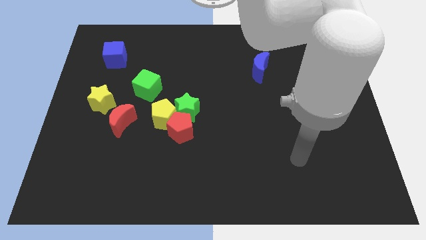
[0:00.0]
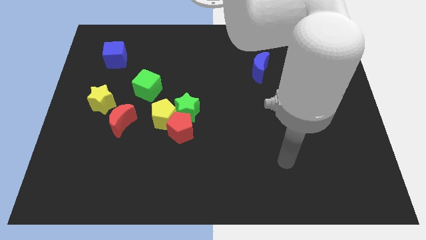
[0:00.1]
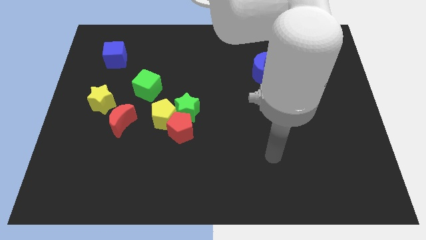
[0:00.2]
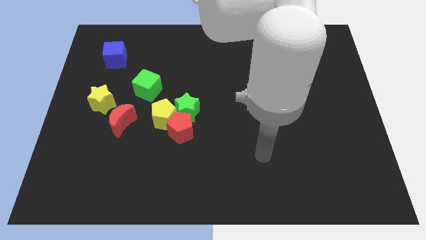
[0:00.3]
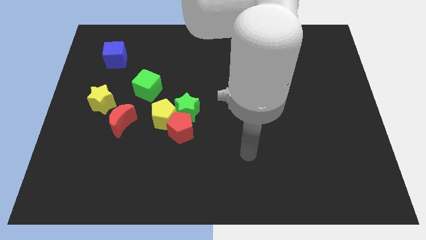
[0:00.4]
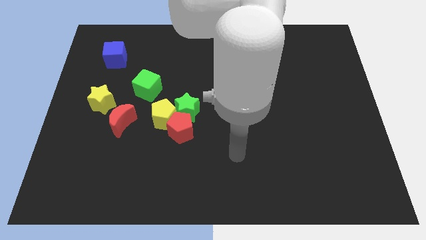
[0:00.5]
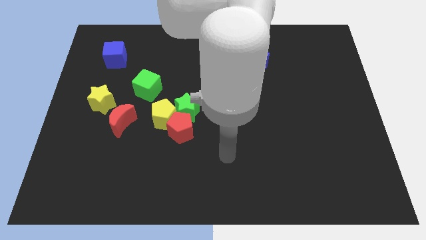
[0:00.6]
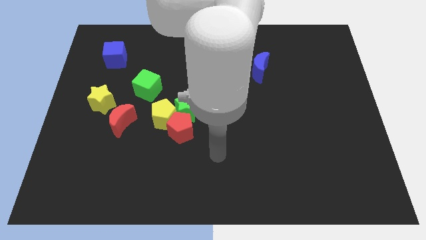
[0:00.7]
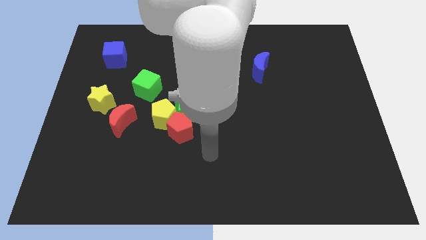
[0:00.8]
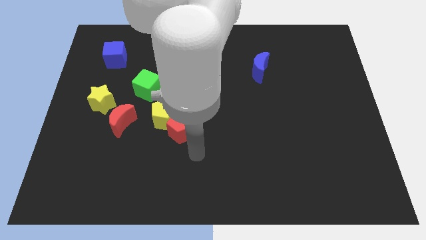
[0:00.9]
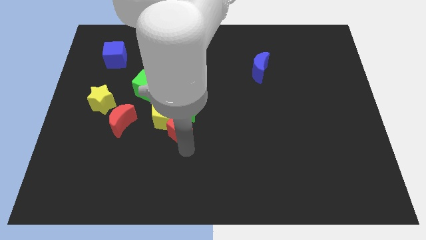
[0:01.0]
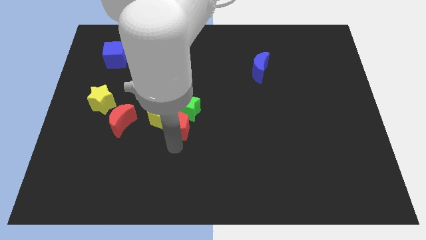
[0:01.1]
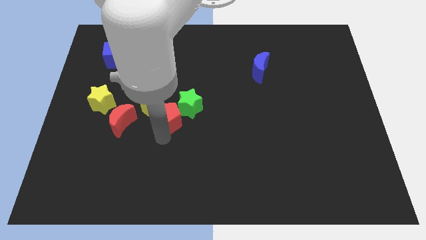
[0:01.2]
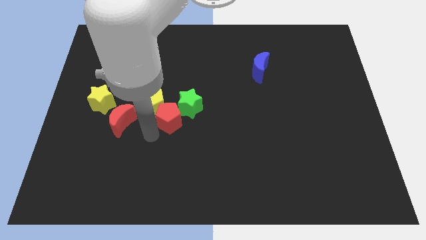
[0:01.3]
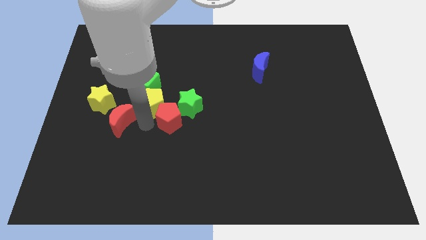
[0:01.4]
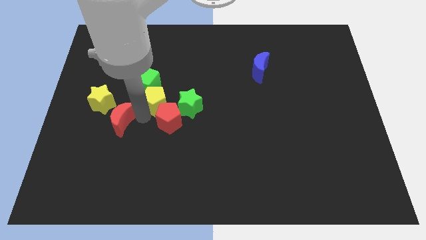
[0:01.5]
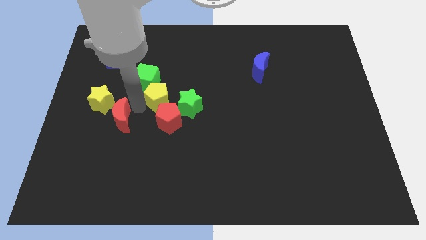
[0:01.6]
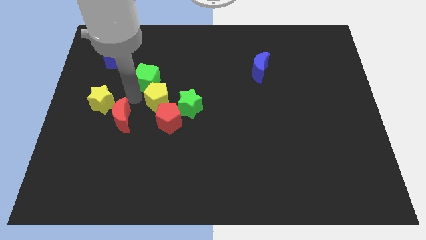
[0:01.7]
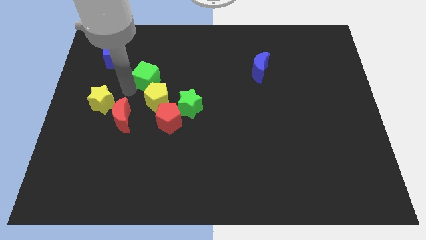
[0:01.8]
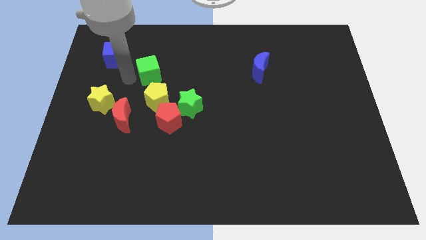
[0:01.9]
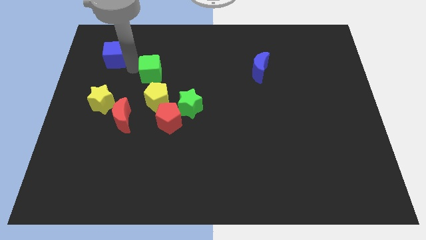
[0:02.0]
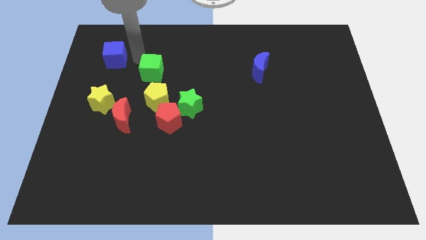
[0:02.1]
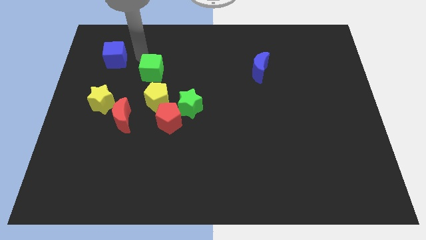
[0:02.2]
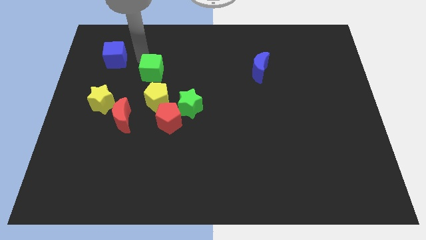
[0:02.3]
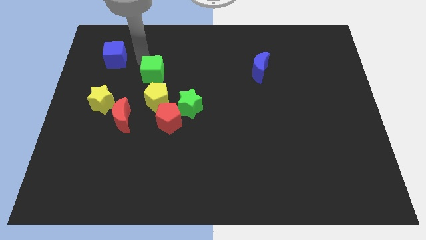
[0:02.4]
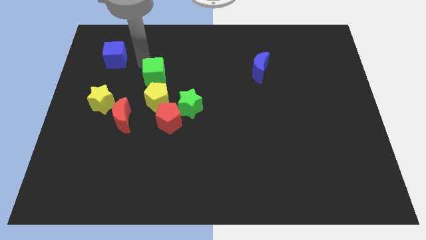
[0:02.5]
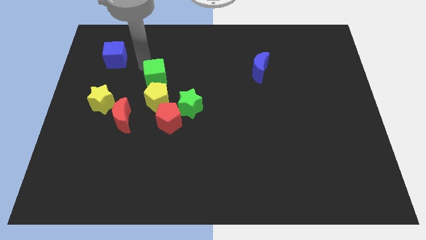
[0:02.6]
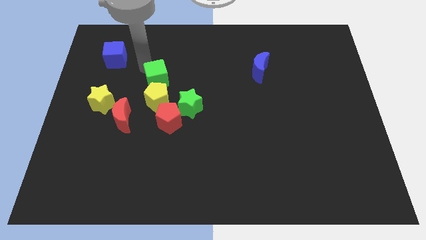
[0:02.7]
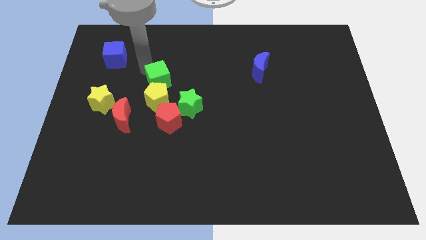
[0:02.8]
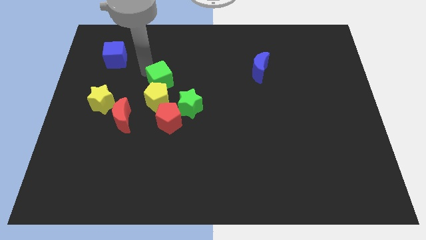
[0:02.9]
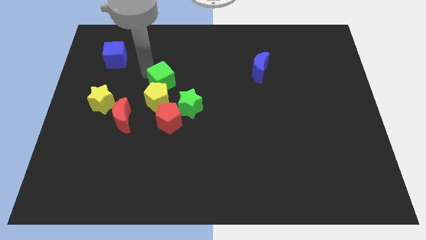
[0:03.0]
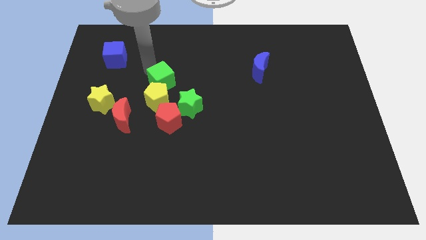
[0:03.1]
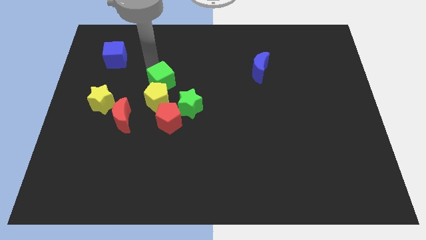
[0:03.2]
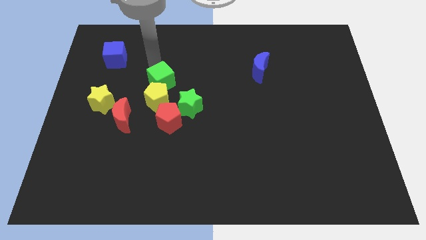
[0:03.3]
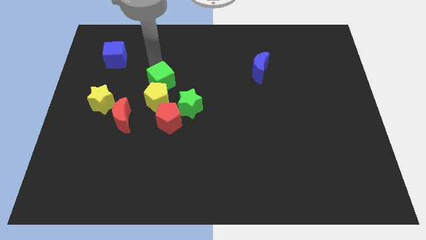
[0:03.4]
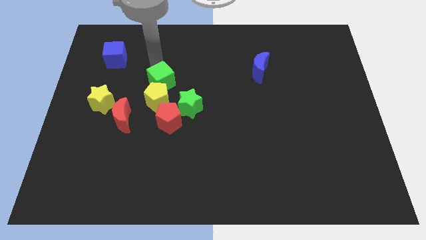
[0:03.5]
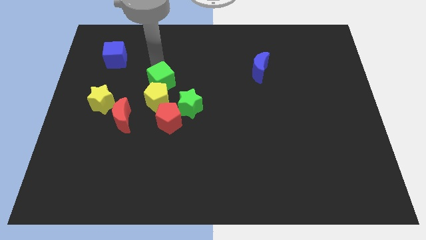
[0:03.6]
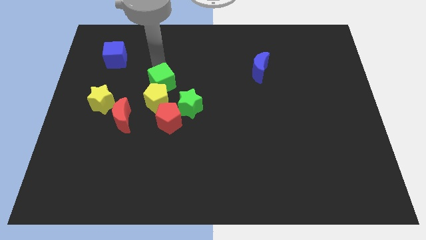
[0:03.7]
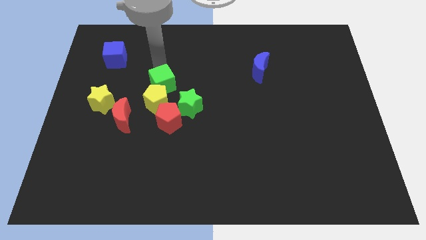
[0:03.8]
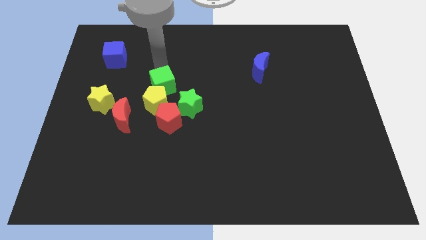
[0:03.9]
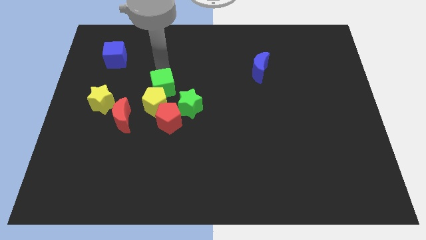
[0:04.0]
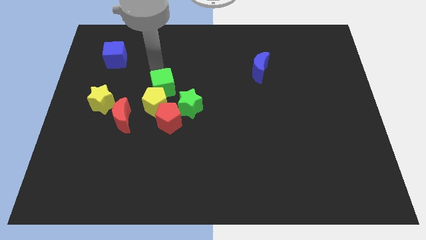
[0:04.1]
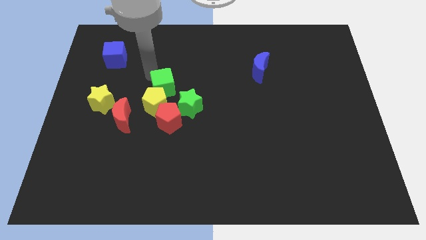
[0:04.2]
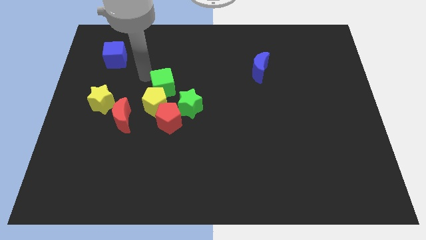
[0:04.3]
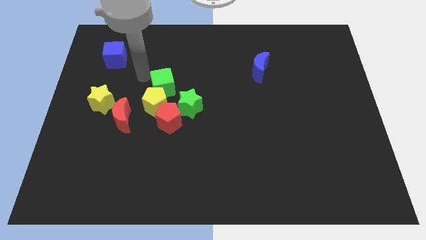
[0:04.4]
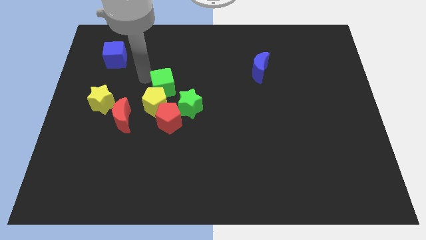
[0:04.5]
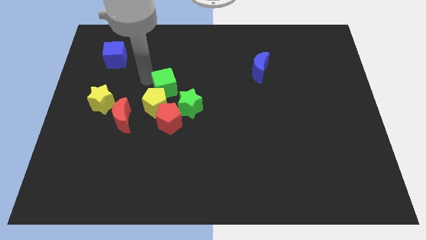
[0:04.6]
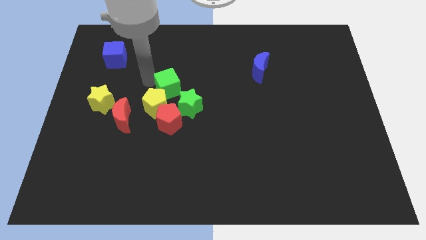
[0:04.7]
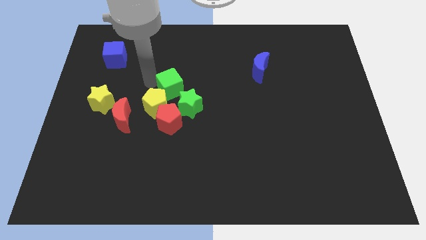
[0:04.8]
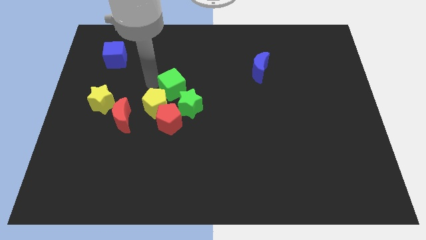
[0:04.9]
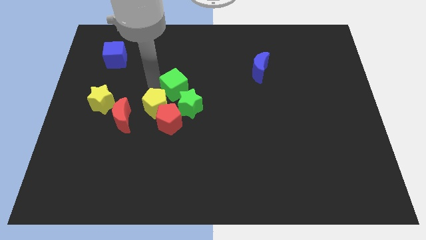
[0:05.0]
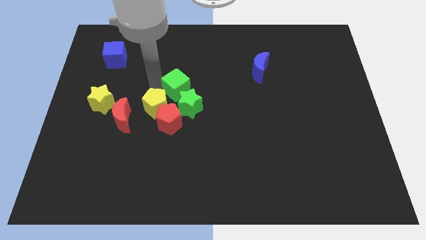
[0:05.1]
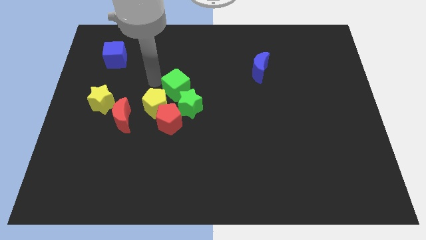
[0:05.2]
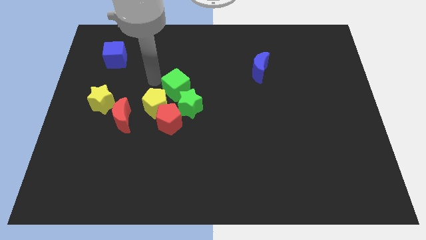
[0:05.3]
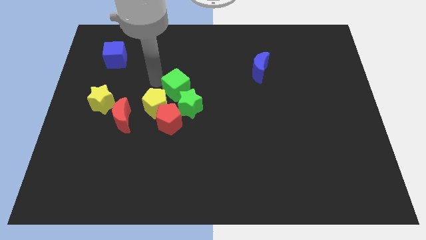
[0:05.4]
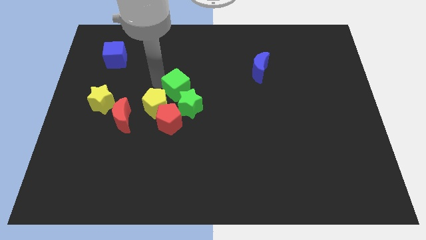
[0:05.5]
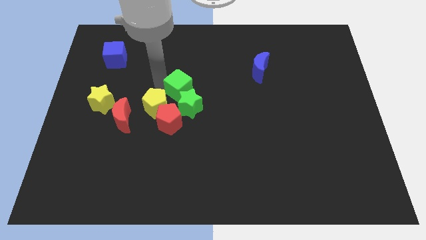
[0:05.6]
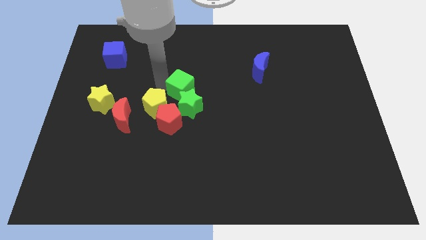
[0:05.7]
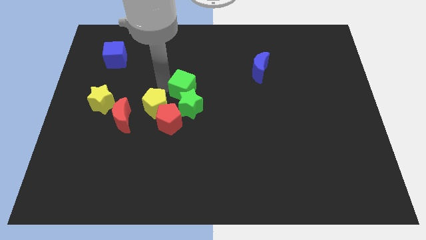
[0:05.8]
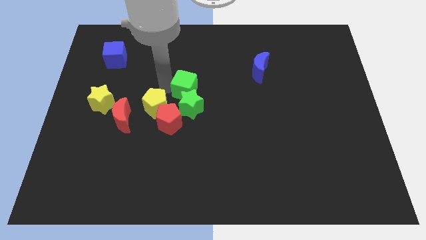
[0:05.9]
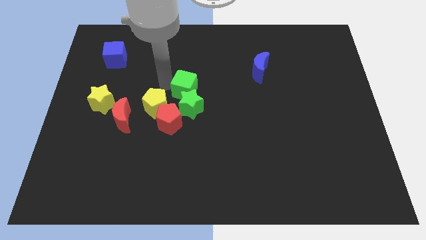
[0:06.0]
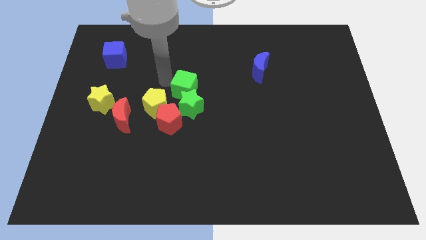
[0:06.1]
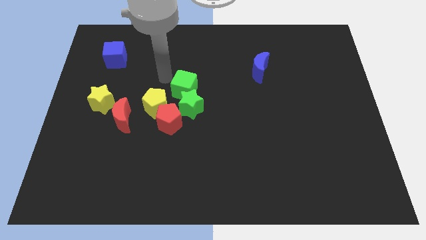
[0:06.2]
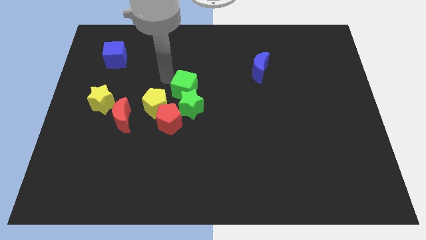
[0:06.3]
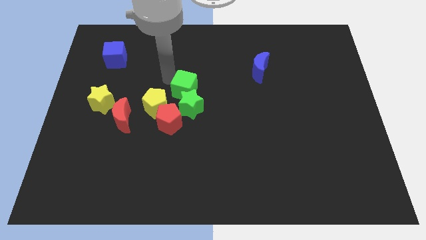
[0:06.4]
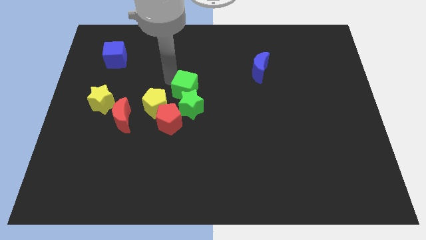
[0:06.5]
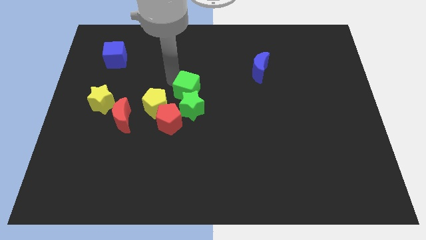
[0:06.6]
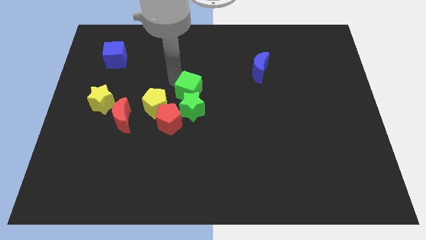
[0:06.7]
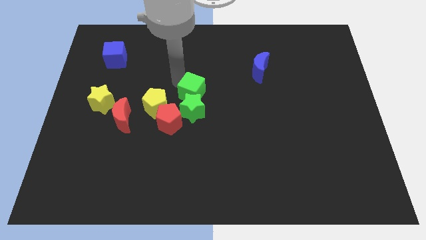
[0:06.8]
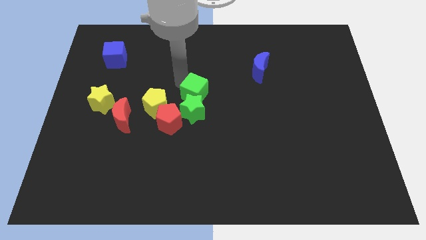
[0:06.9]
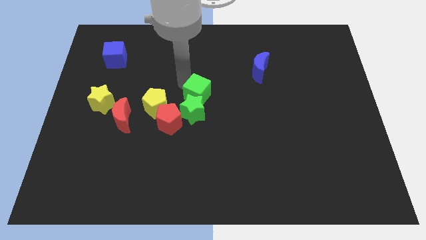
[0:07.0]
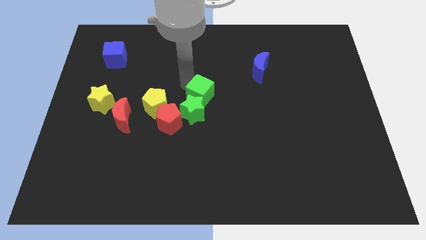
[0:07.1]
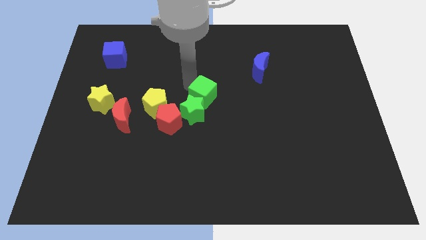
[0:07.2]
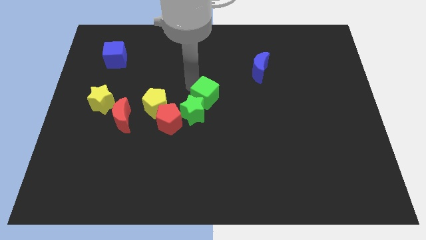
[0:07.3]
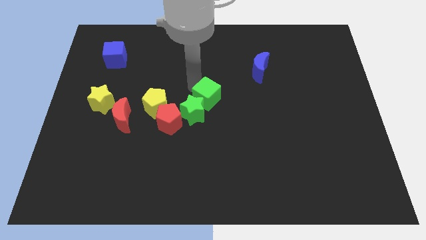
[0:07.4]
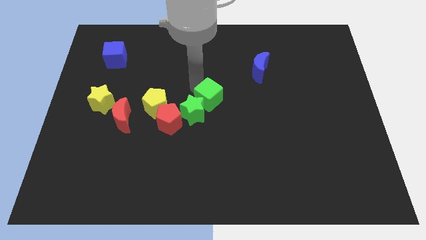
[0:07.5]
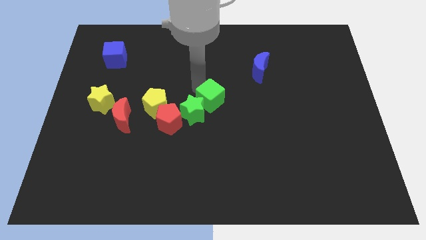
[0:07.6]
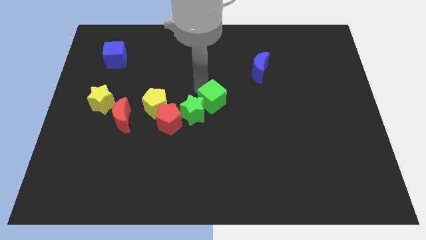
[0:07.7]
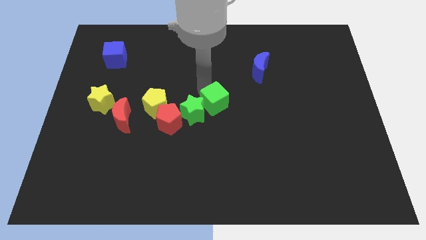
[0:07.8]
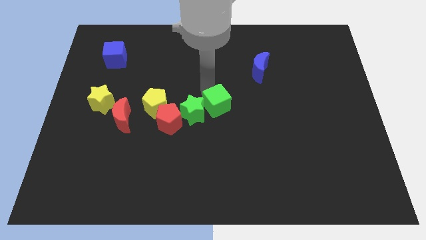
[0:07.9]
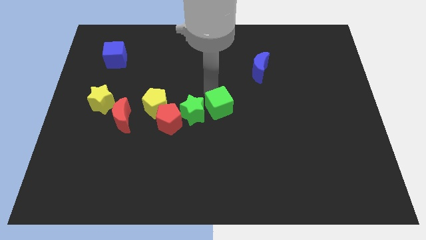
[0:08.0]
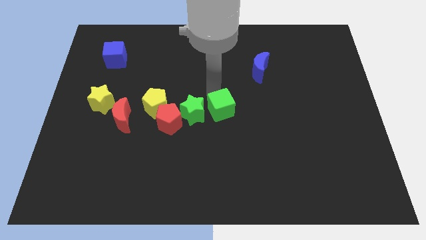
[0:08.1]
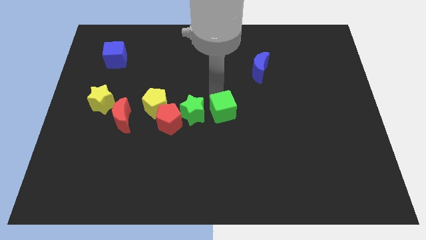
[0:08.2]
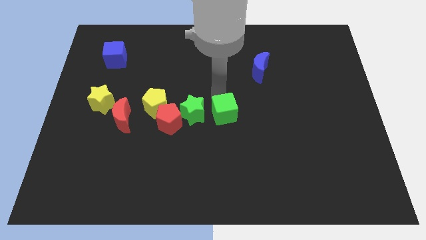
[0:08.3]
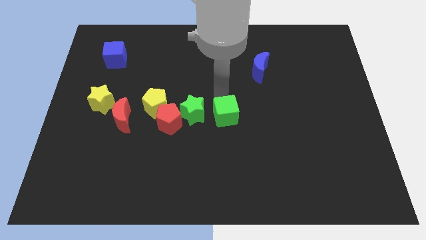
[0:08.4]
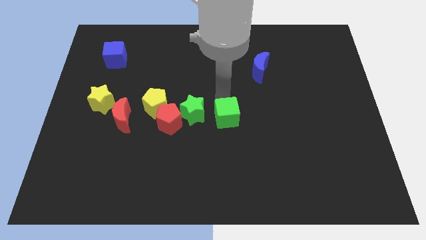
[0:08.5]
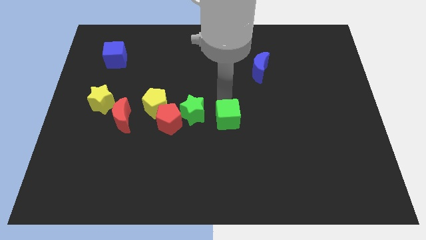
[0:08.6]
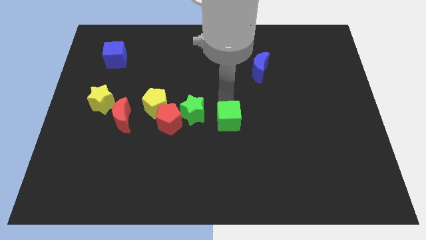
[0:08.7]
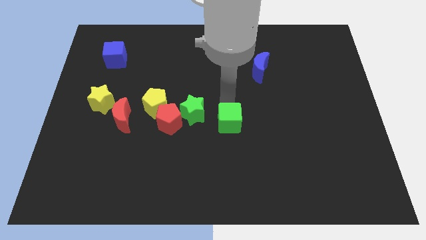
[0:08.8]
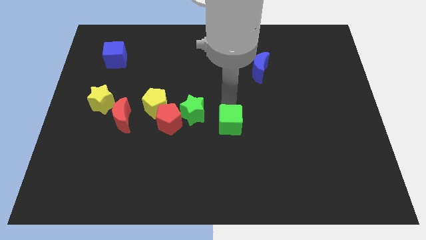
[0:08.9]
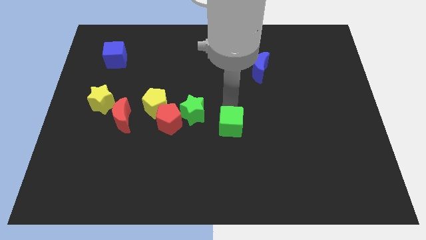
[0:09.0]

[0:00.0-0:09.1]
slide the green cube diagonally down and to the right
